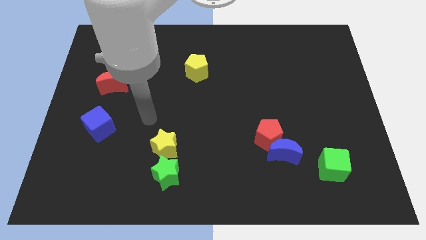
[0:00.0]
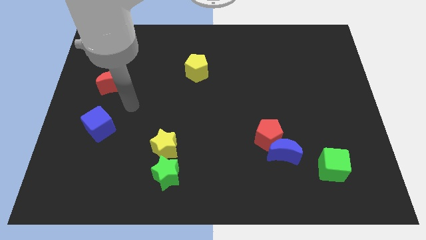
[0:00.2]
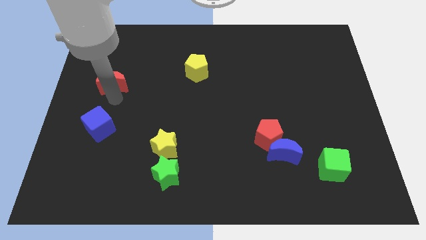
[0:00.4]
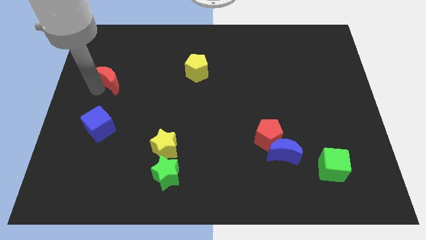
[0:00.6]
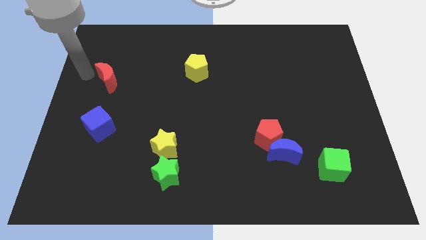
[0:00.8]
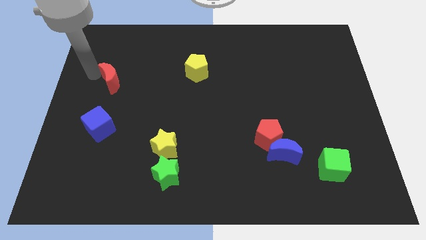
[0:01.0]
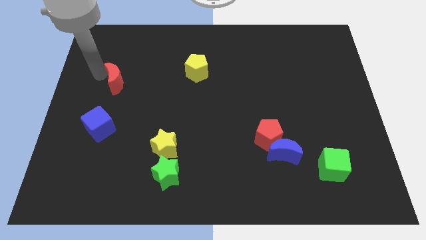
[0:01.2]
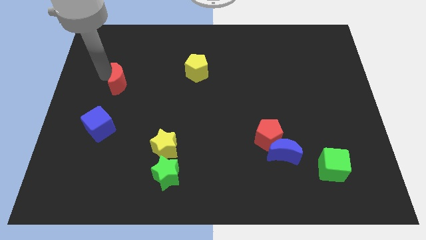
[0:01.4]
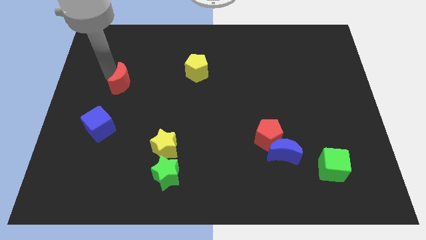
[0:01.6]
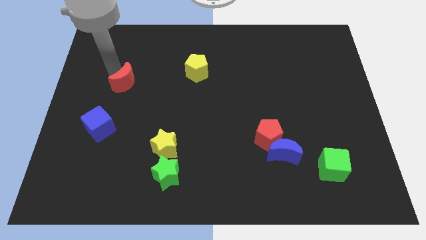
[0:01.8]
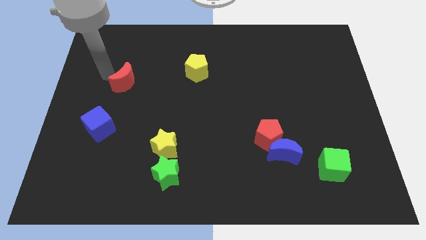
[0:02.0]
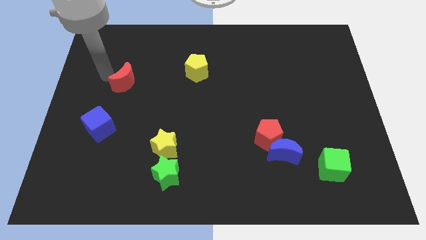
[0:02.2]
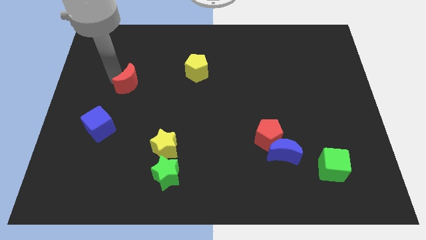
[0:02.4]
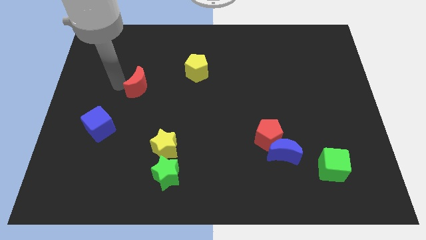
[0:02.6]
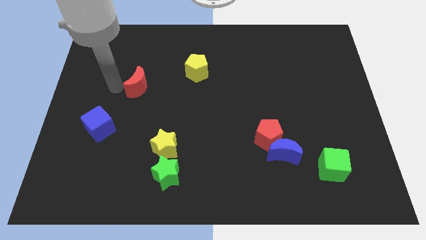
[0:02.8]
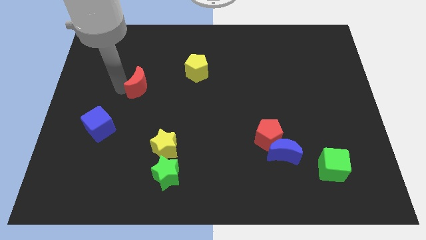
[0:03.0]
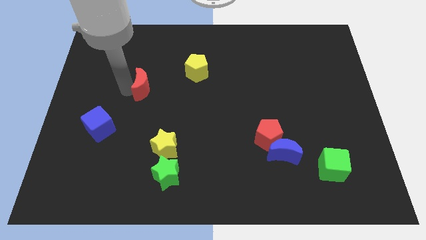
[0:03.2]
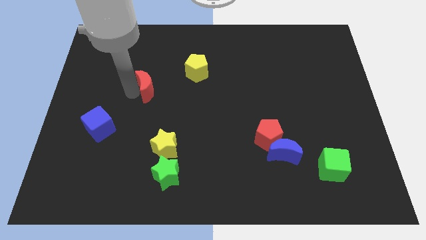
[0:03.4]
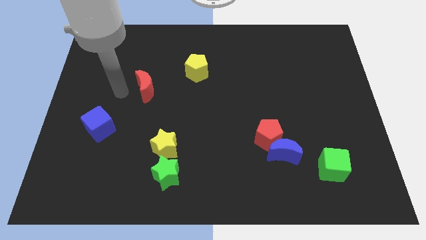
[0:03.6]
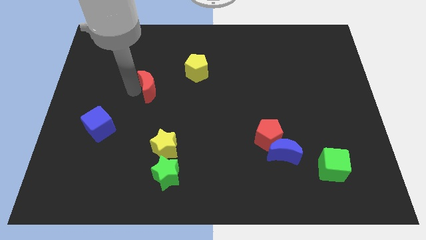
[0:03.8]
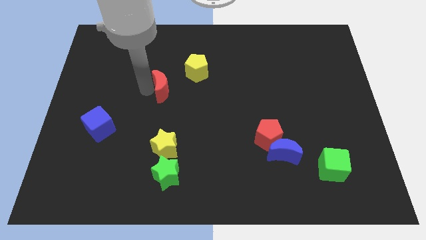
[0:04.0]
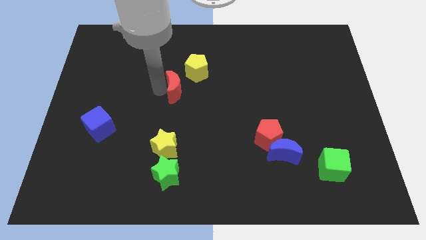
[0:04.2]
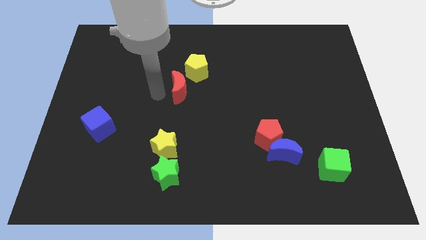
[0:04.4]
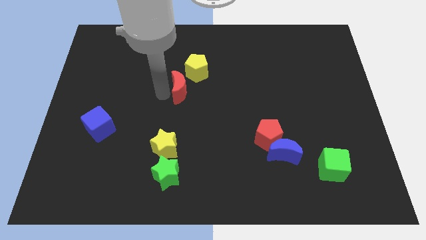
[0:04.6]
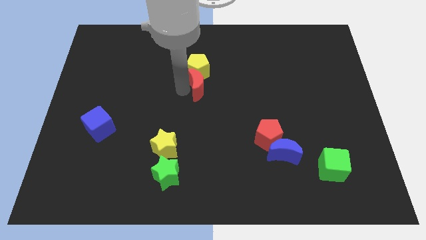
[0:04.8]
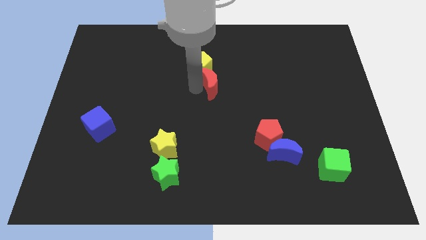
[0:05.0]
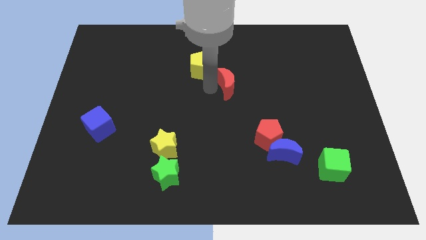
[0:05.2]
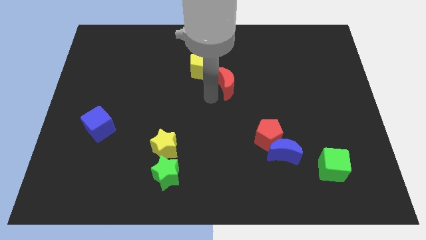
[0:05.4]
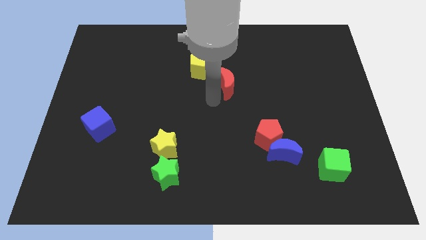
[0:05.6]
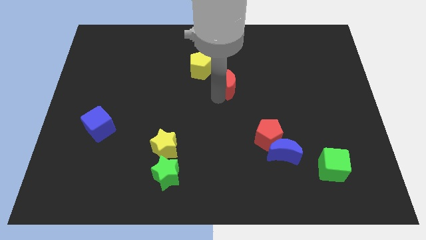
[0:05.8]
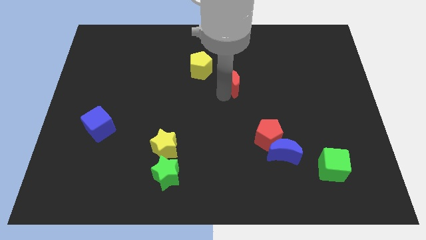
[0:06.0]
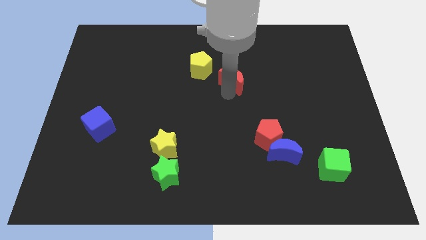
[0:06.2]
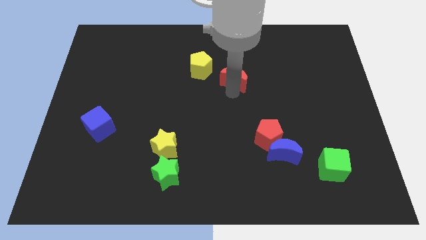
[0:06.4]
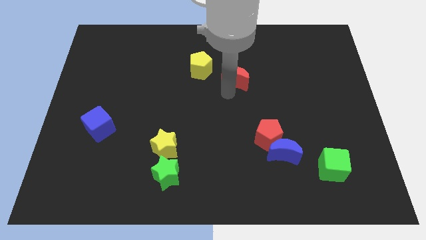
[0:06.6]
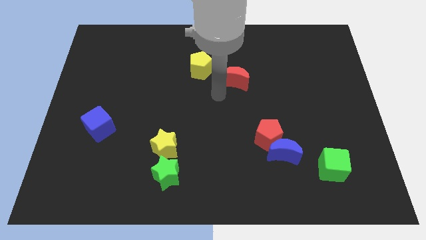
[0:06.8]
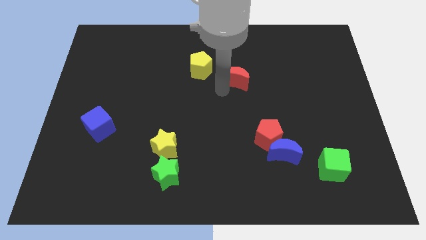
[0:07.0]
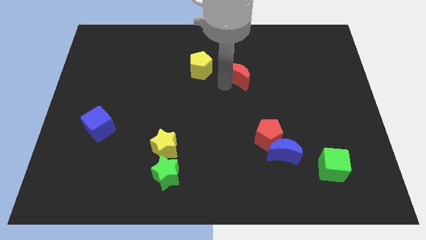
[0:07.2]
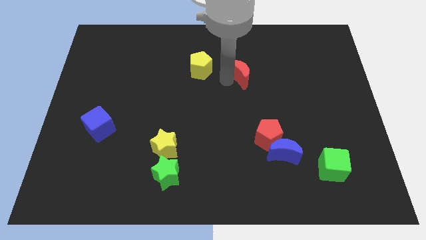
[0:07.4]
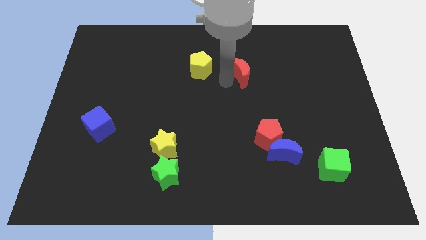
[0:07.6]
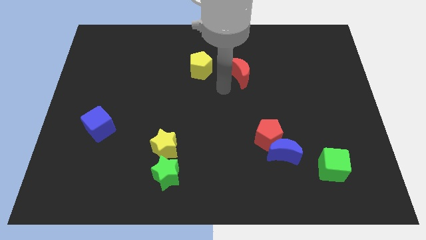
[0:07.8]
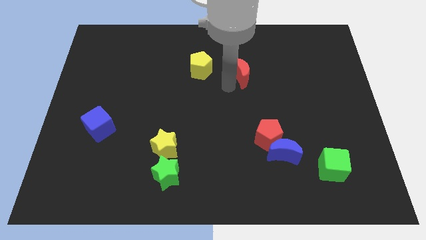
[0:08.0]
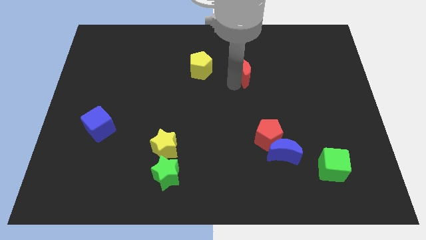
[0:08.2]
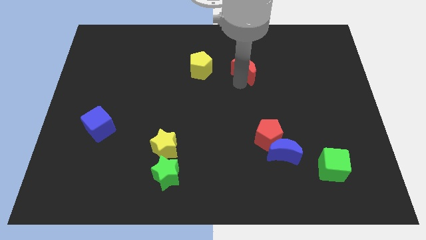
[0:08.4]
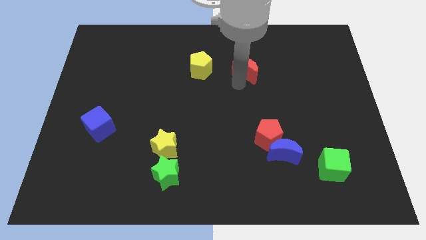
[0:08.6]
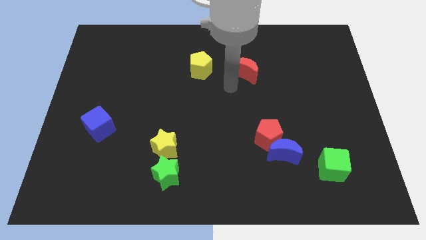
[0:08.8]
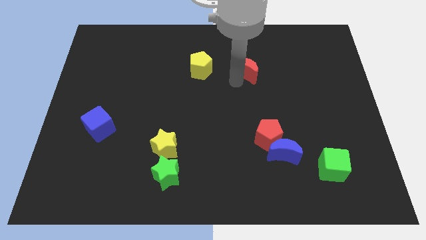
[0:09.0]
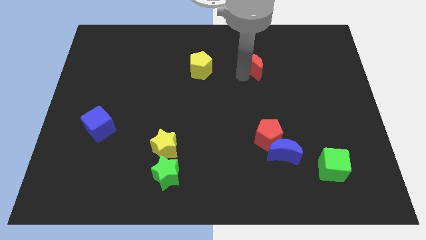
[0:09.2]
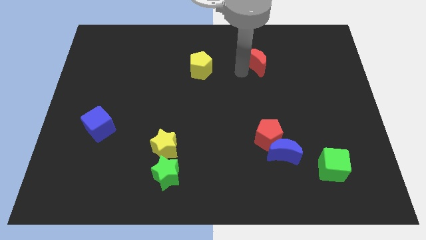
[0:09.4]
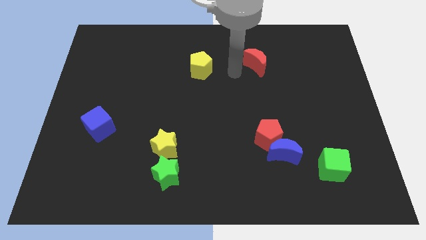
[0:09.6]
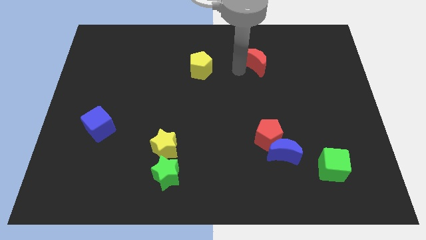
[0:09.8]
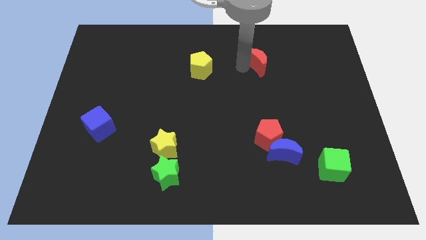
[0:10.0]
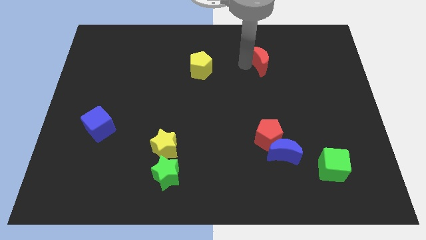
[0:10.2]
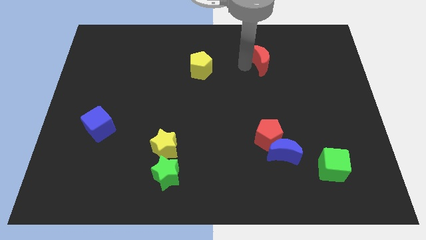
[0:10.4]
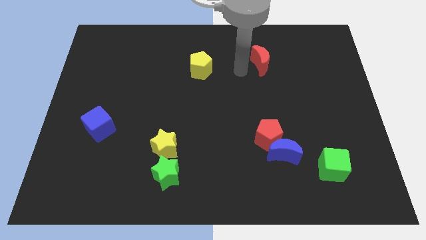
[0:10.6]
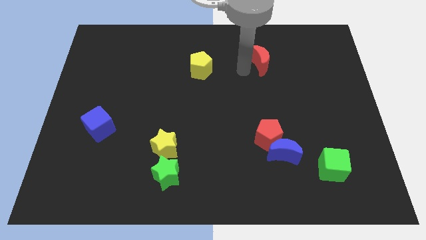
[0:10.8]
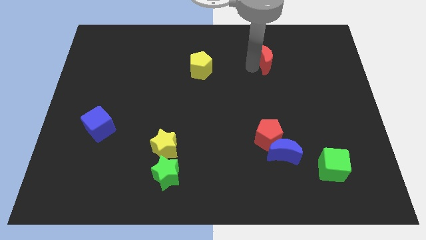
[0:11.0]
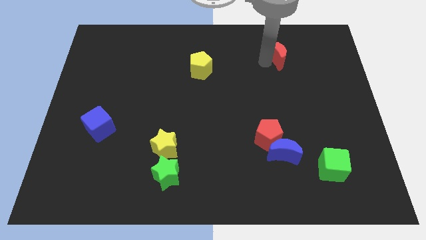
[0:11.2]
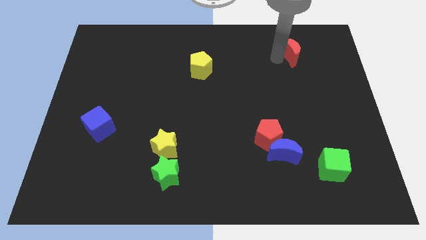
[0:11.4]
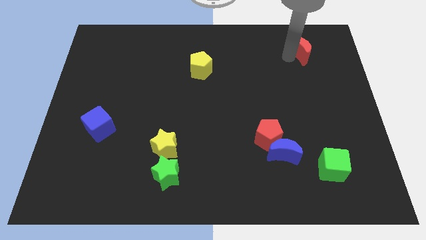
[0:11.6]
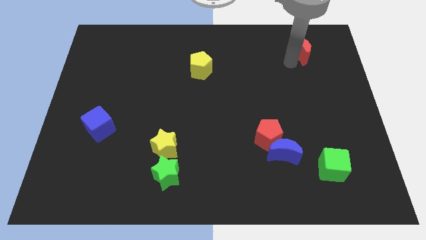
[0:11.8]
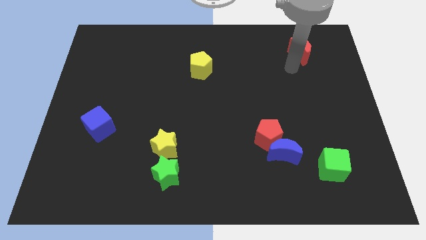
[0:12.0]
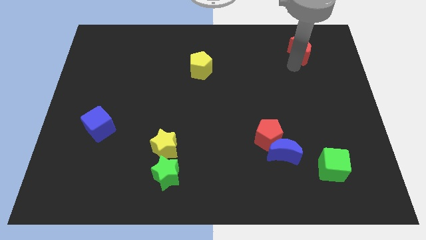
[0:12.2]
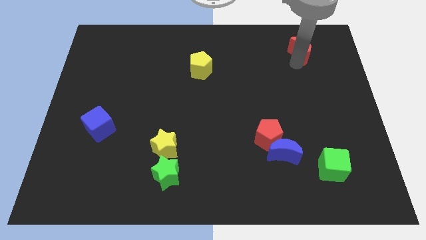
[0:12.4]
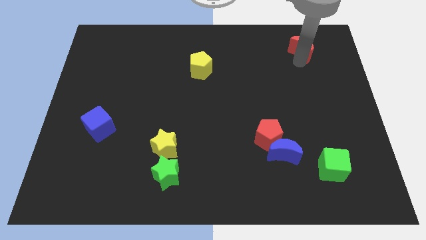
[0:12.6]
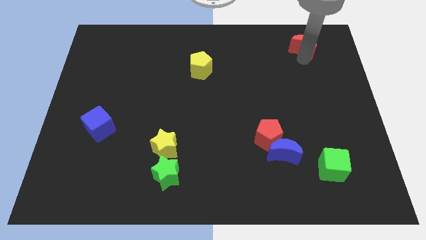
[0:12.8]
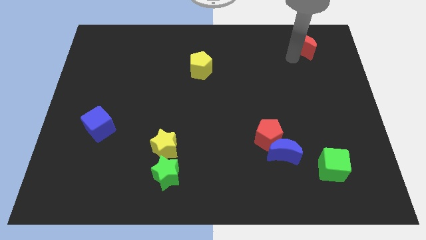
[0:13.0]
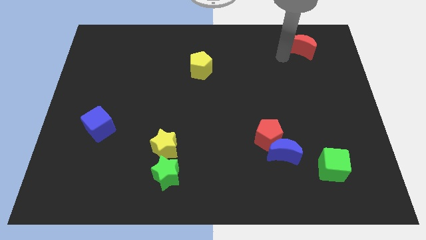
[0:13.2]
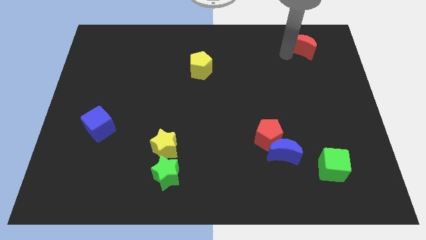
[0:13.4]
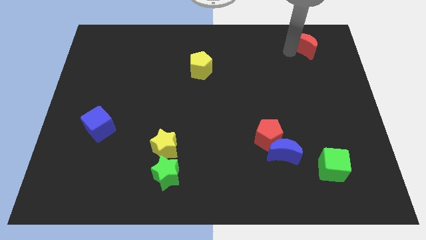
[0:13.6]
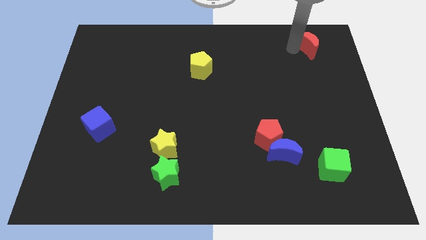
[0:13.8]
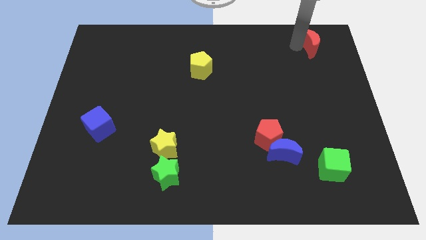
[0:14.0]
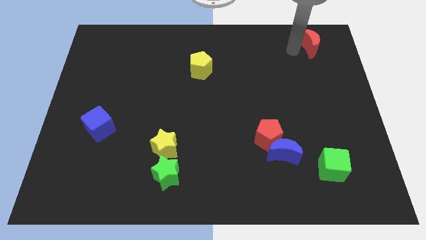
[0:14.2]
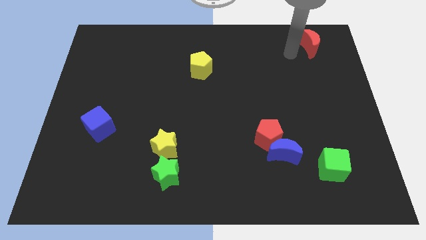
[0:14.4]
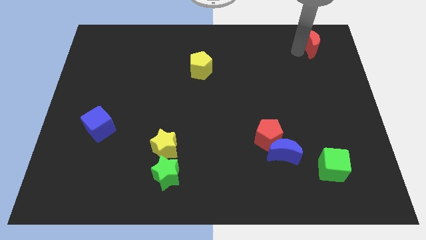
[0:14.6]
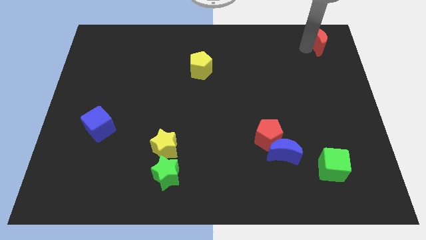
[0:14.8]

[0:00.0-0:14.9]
push the red moon to the top right of the board
